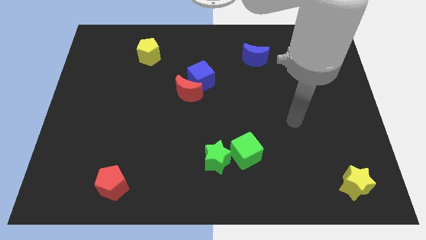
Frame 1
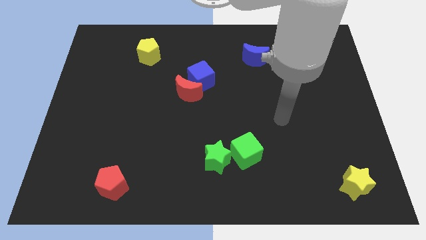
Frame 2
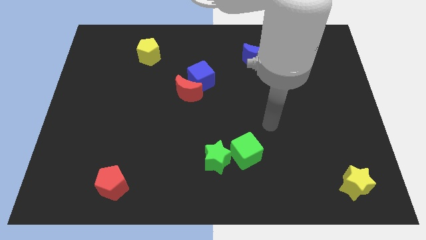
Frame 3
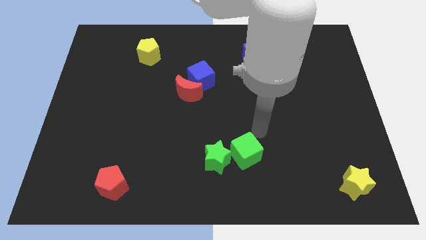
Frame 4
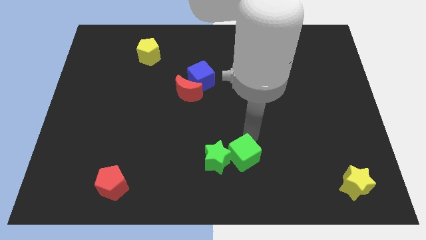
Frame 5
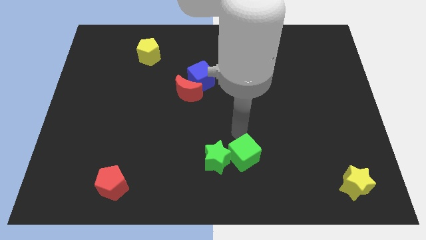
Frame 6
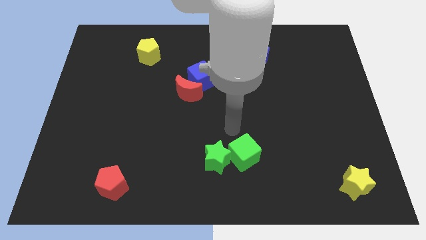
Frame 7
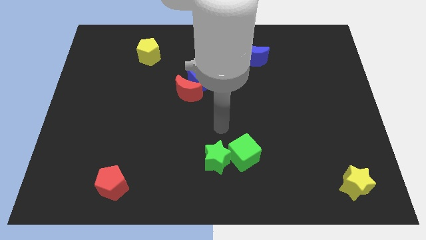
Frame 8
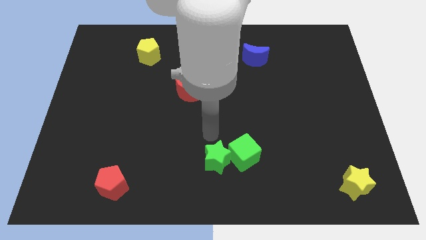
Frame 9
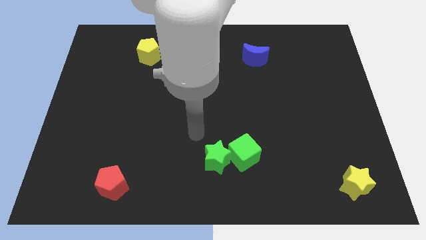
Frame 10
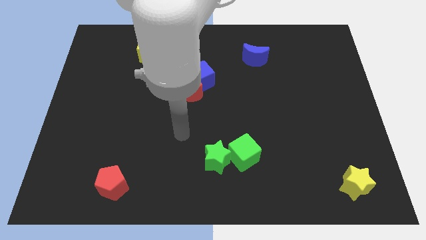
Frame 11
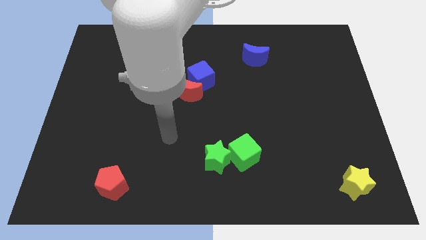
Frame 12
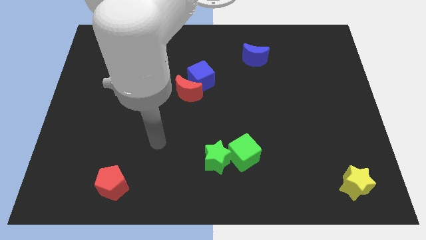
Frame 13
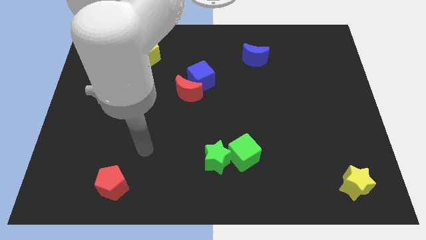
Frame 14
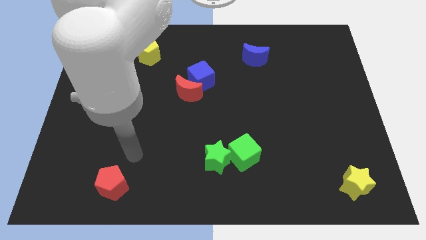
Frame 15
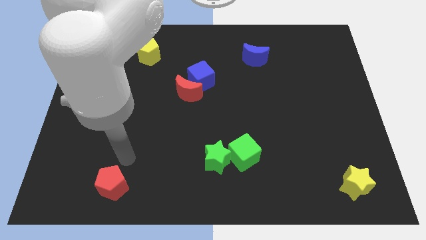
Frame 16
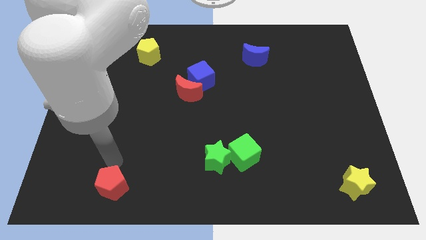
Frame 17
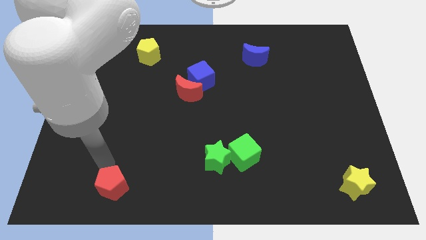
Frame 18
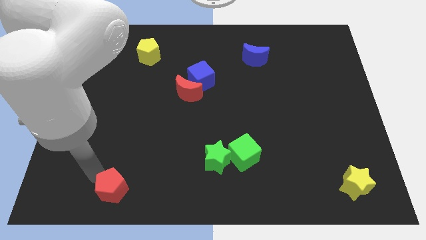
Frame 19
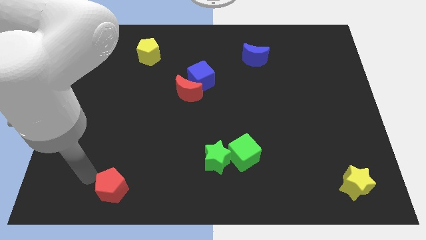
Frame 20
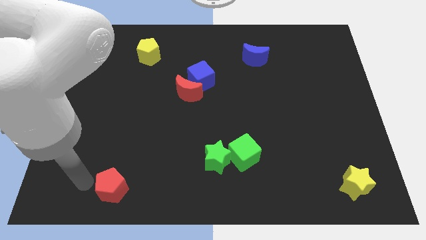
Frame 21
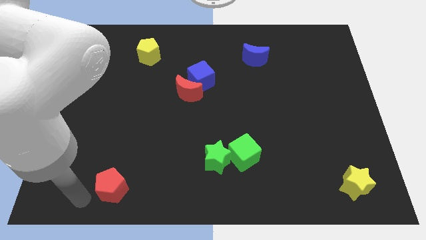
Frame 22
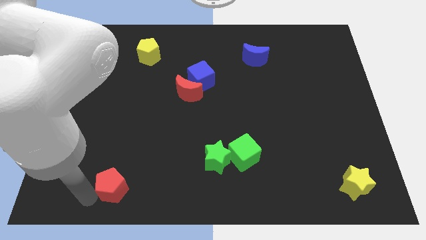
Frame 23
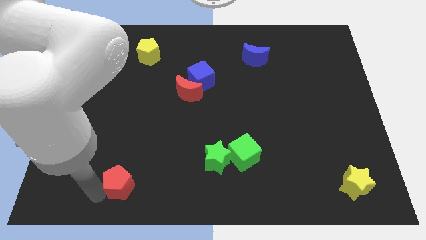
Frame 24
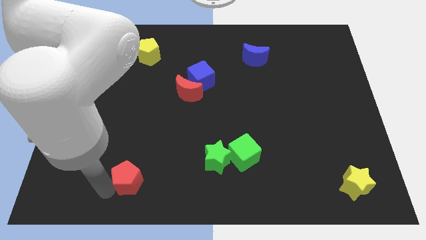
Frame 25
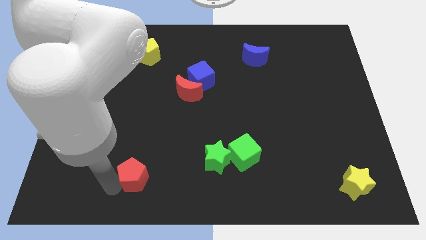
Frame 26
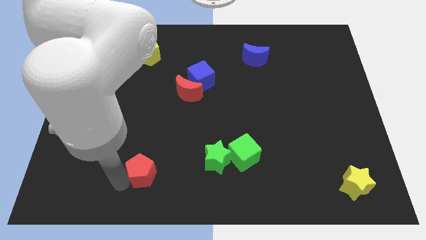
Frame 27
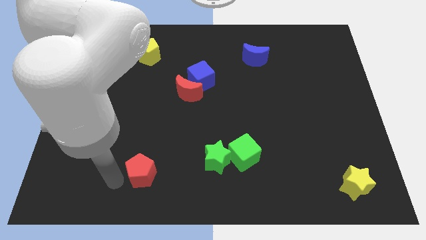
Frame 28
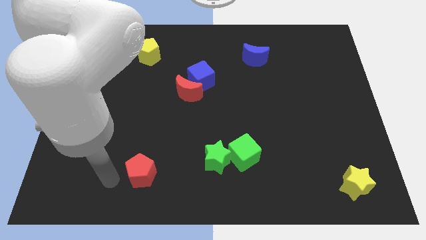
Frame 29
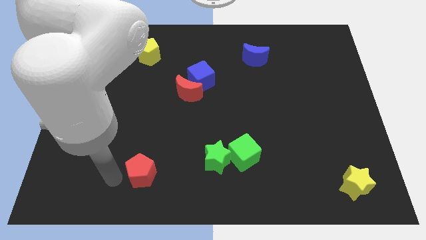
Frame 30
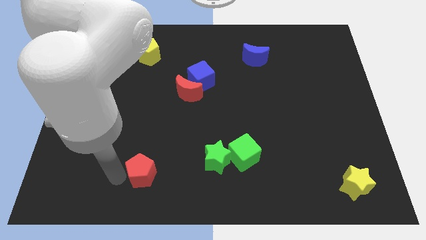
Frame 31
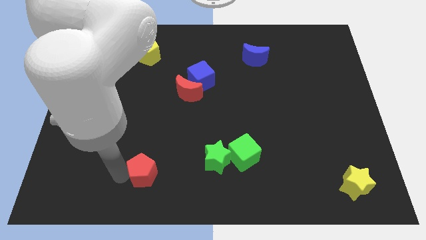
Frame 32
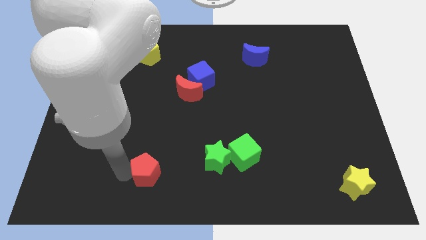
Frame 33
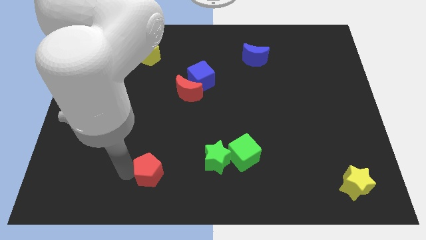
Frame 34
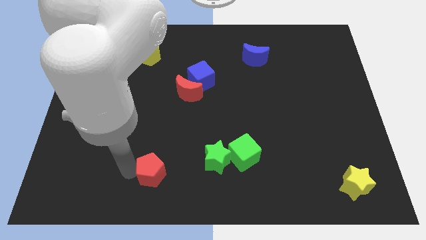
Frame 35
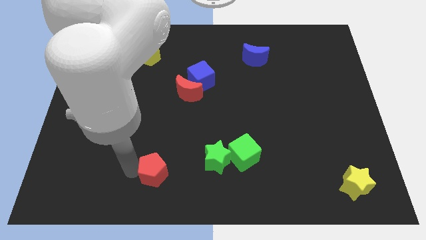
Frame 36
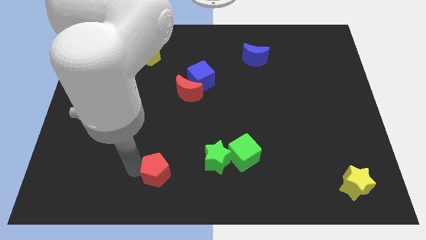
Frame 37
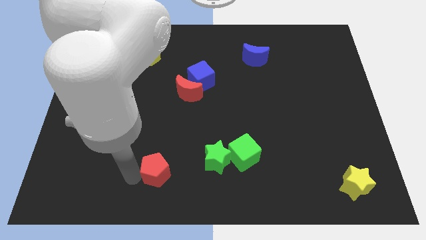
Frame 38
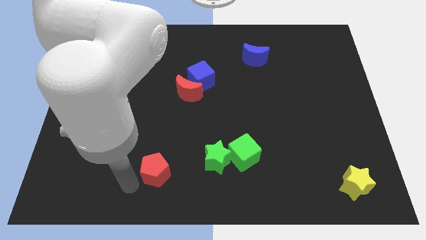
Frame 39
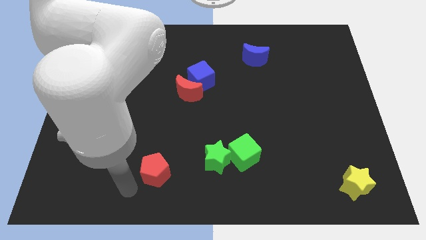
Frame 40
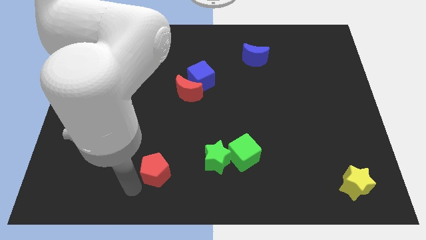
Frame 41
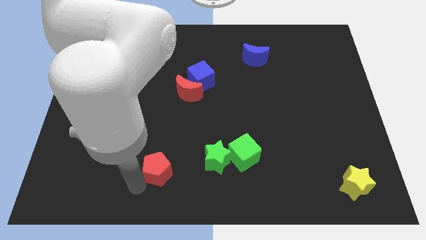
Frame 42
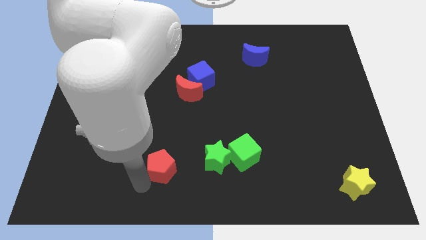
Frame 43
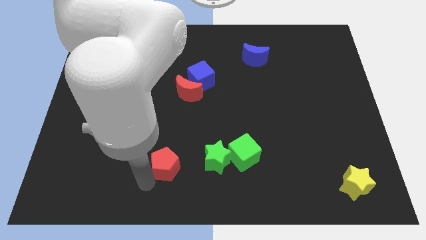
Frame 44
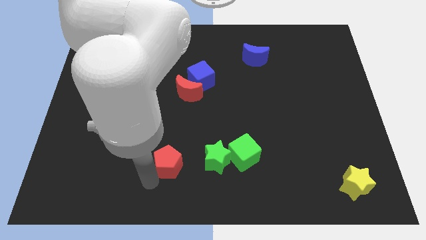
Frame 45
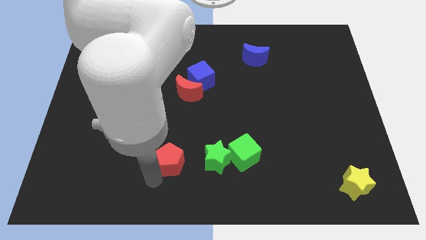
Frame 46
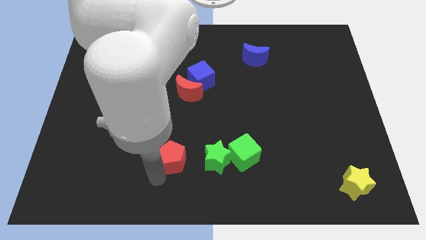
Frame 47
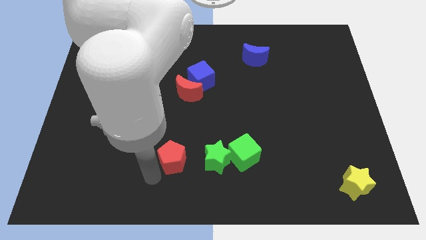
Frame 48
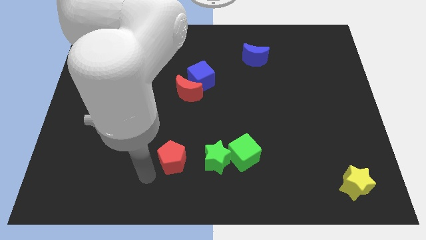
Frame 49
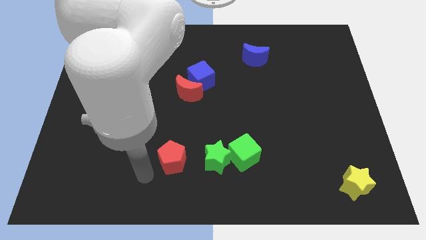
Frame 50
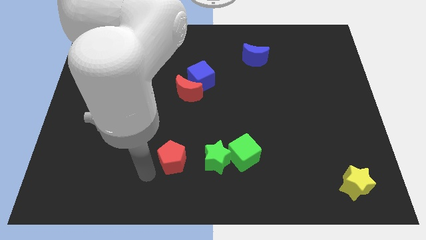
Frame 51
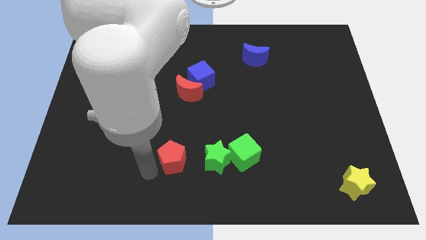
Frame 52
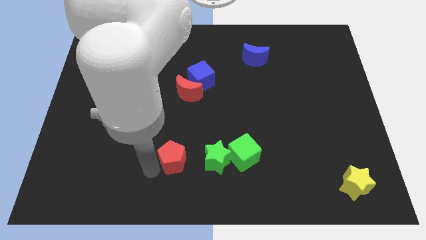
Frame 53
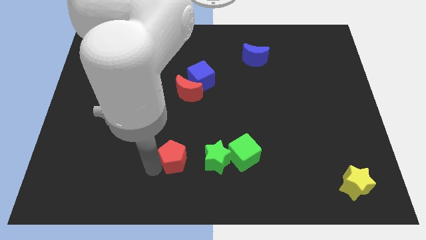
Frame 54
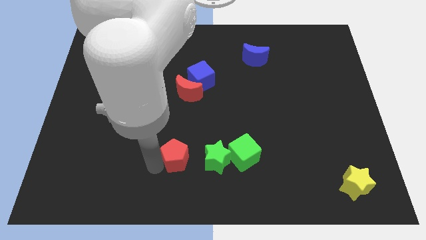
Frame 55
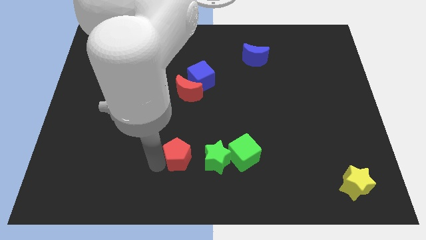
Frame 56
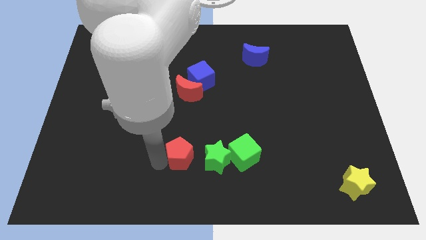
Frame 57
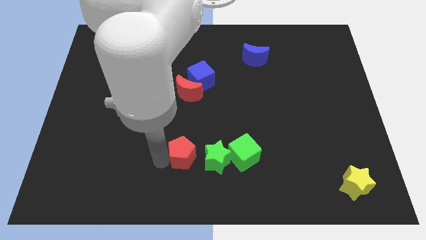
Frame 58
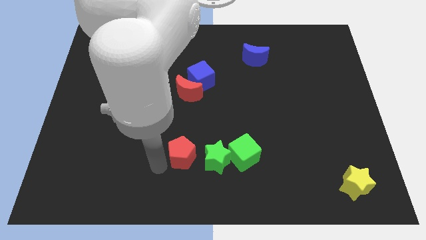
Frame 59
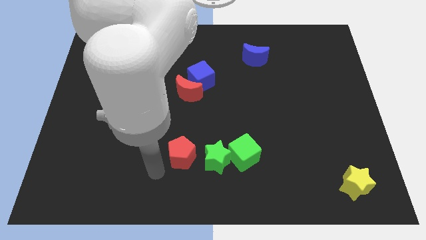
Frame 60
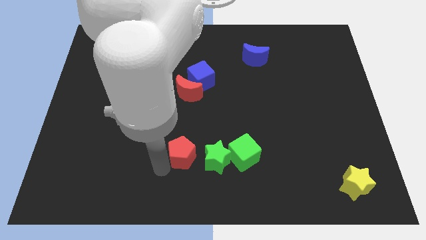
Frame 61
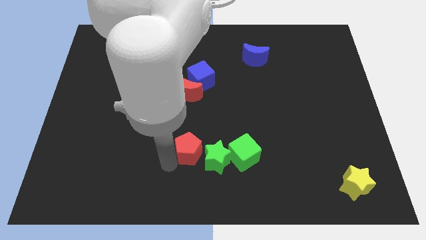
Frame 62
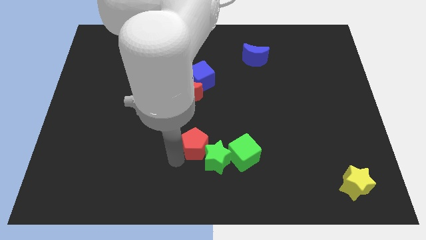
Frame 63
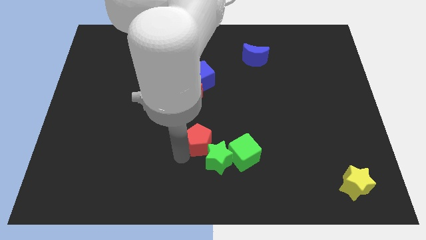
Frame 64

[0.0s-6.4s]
move the red pentagon to the top left of the green cube
